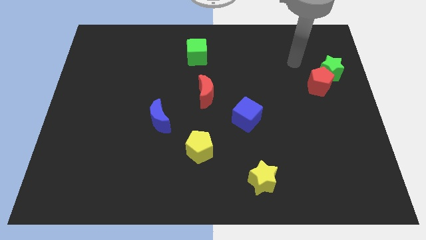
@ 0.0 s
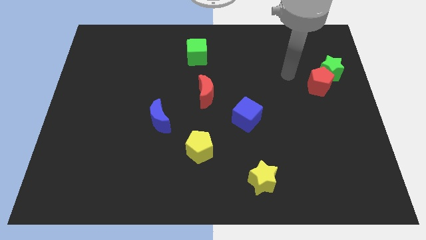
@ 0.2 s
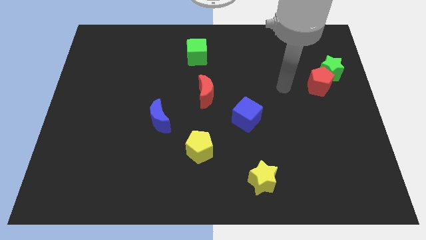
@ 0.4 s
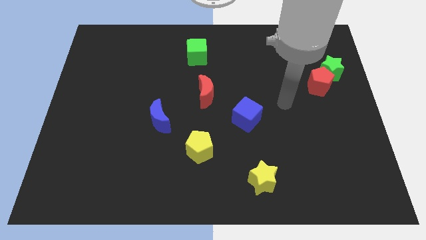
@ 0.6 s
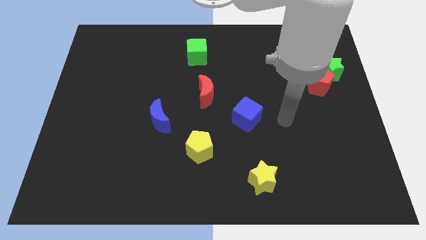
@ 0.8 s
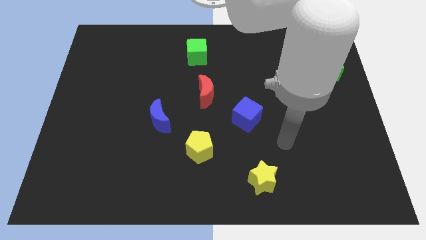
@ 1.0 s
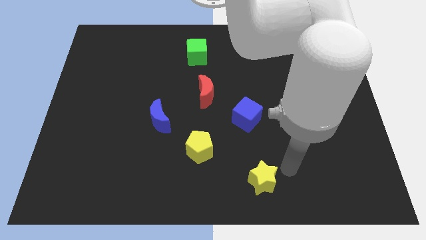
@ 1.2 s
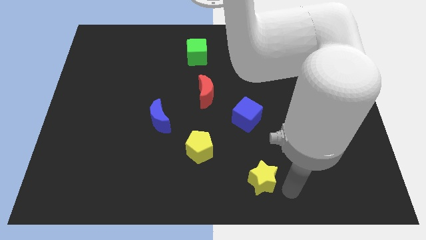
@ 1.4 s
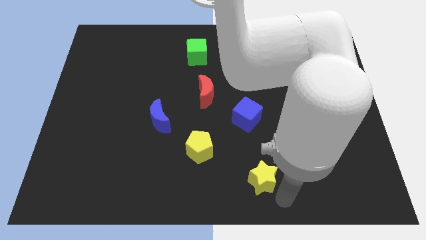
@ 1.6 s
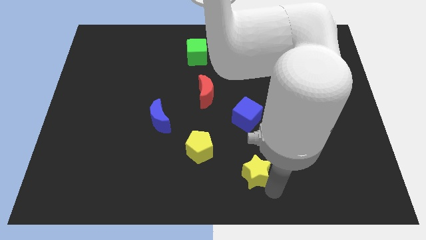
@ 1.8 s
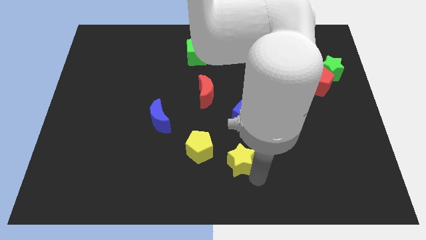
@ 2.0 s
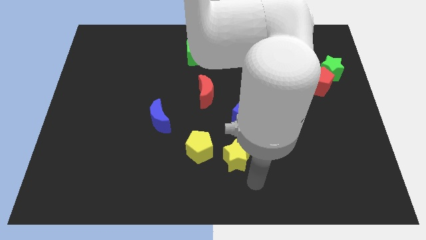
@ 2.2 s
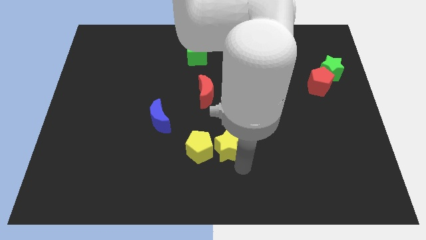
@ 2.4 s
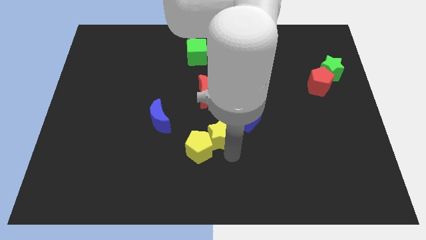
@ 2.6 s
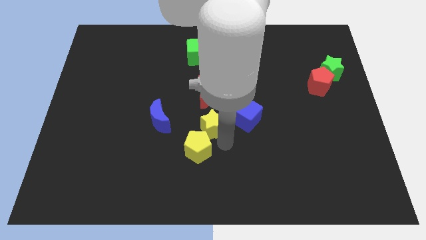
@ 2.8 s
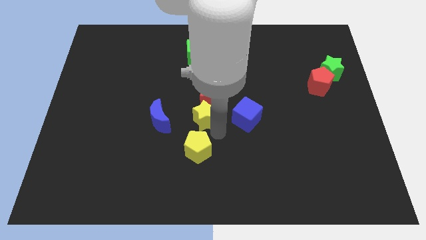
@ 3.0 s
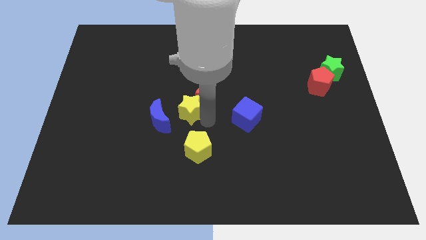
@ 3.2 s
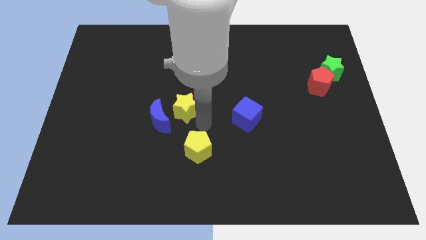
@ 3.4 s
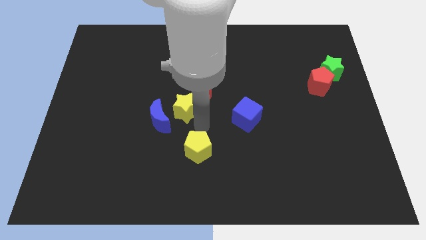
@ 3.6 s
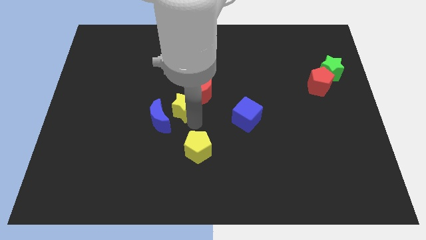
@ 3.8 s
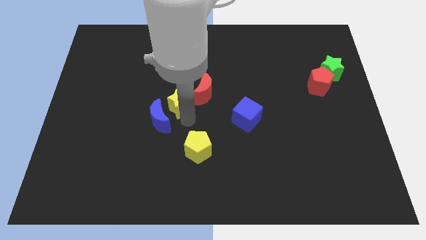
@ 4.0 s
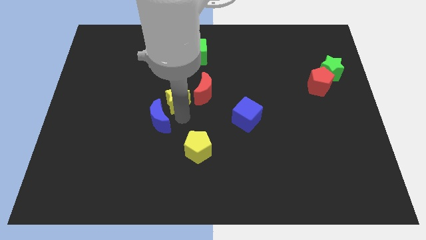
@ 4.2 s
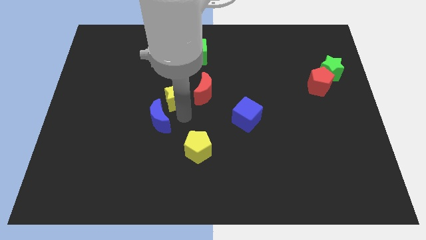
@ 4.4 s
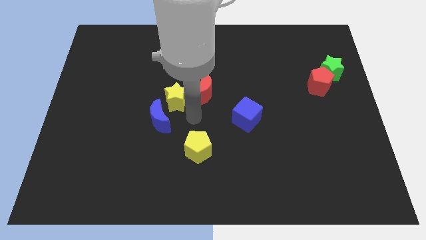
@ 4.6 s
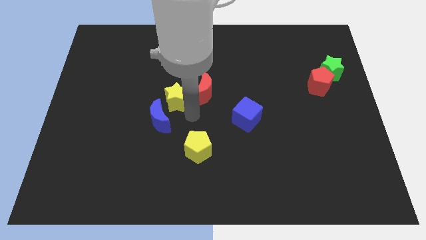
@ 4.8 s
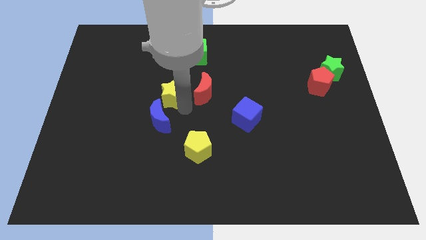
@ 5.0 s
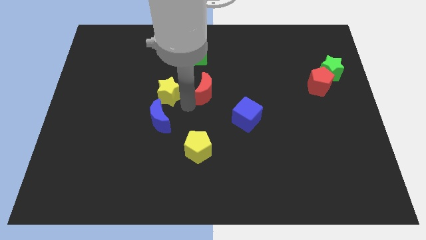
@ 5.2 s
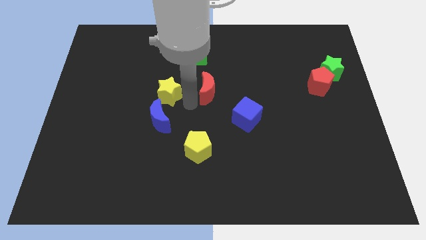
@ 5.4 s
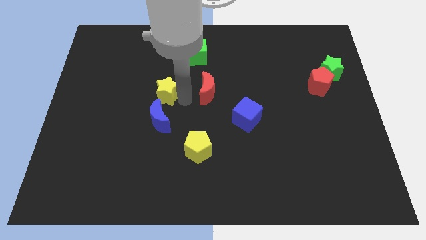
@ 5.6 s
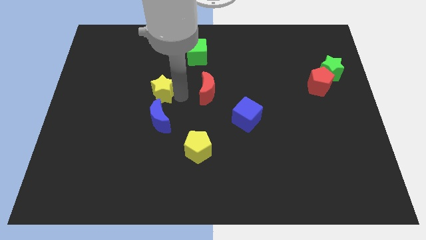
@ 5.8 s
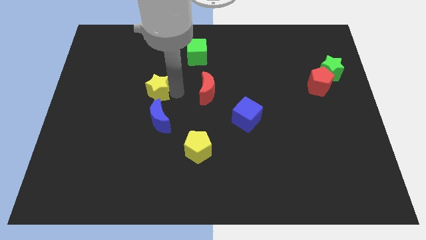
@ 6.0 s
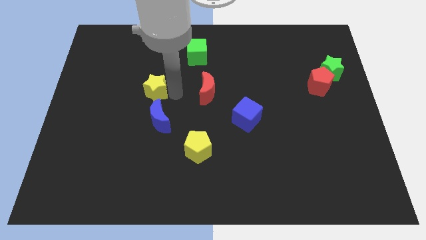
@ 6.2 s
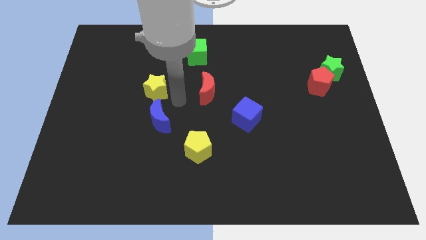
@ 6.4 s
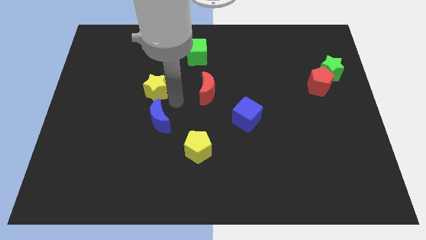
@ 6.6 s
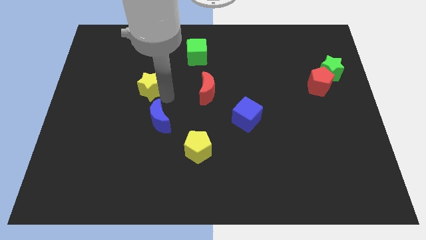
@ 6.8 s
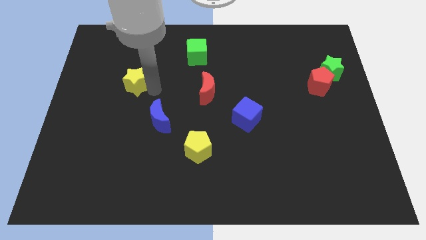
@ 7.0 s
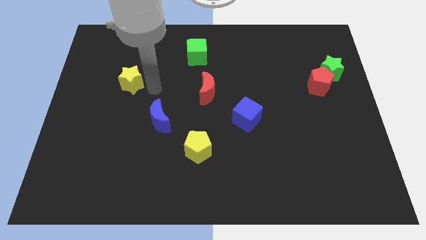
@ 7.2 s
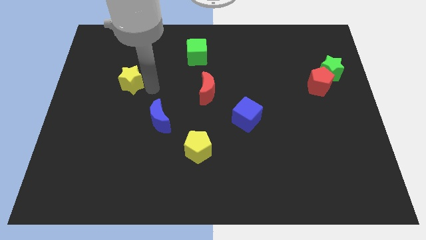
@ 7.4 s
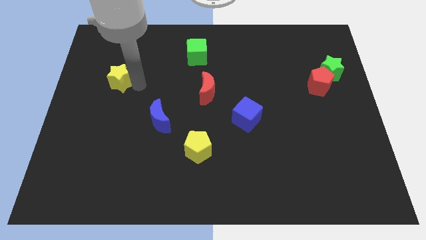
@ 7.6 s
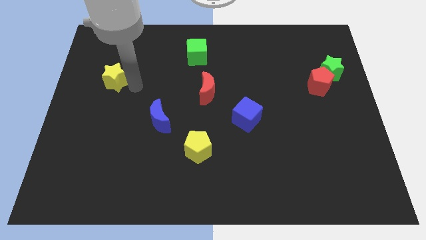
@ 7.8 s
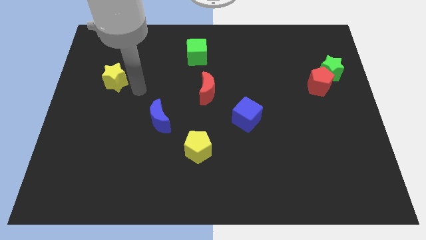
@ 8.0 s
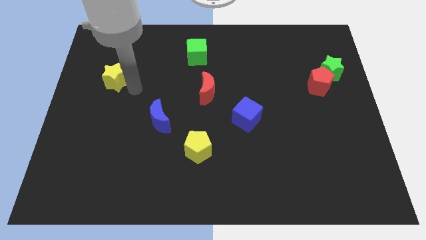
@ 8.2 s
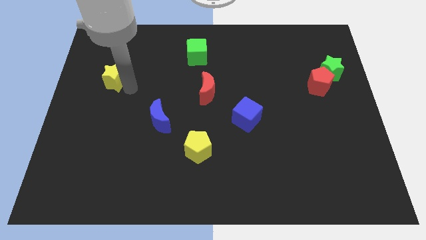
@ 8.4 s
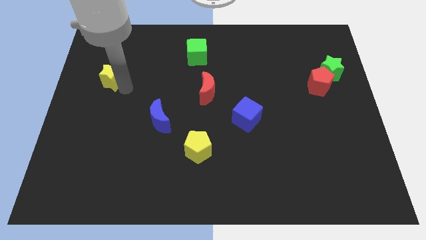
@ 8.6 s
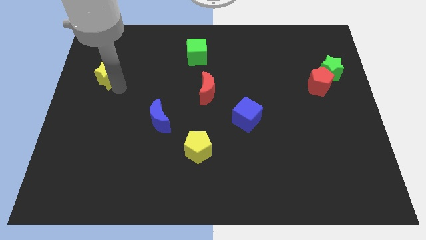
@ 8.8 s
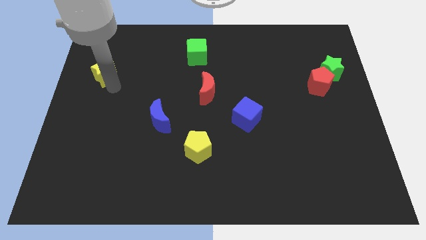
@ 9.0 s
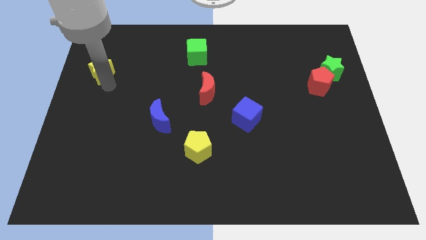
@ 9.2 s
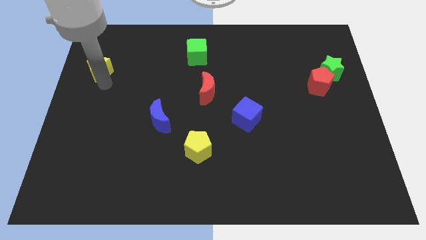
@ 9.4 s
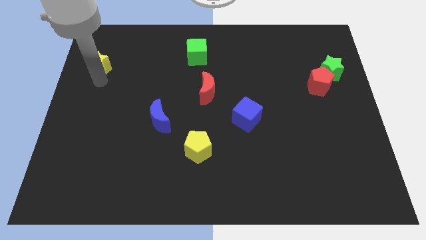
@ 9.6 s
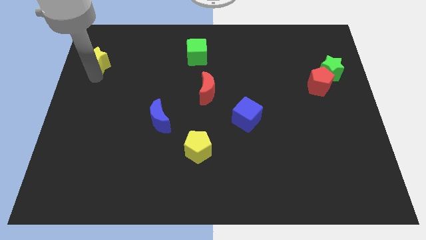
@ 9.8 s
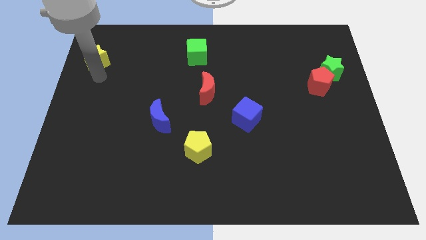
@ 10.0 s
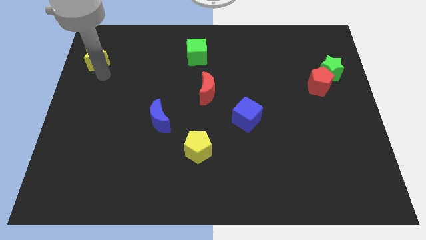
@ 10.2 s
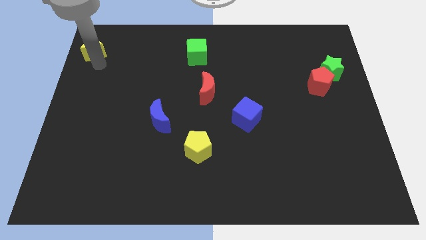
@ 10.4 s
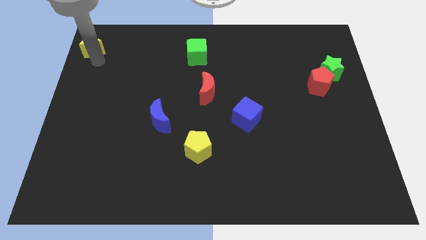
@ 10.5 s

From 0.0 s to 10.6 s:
move the yellow star to the top left

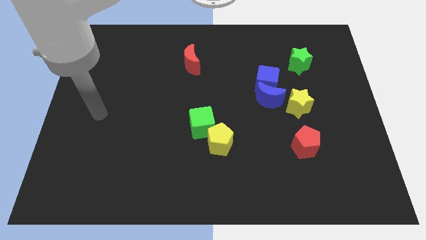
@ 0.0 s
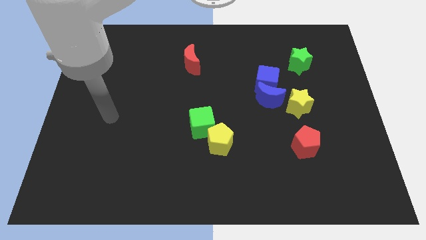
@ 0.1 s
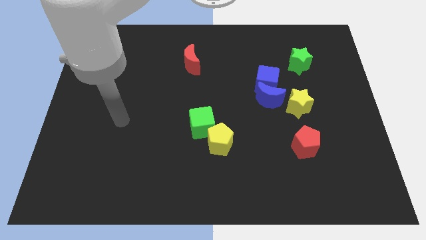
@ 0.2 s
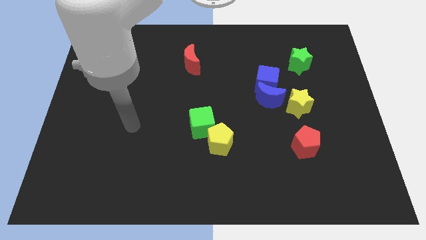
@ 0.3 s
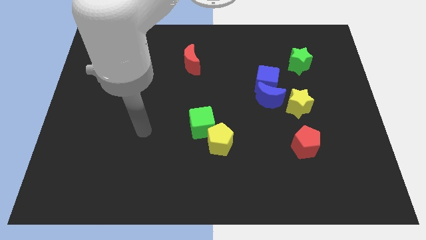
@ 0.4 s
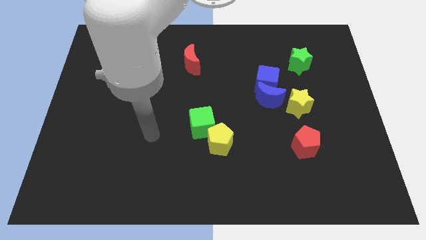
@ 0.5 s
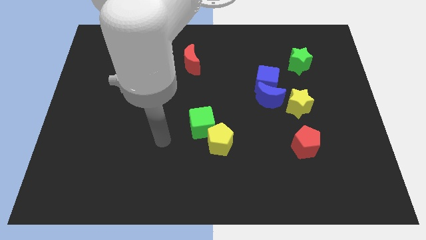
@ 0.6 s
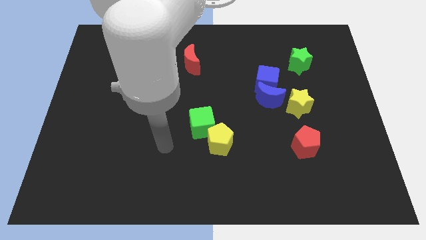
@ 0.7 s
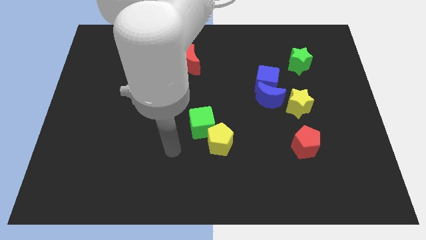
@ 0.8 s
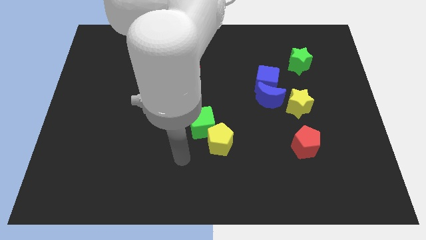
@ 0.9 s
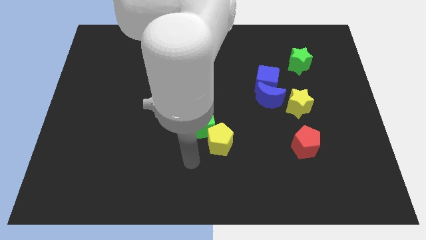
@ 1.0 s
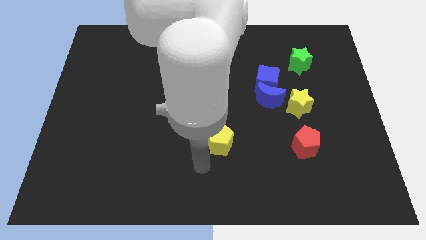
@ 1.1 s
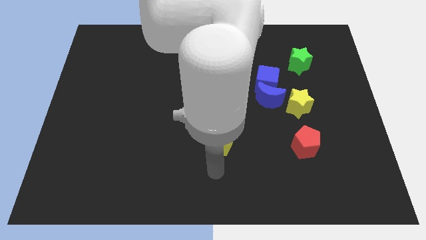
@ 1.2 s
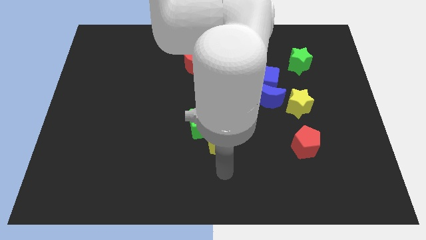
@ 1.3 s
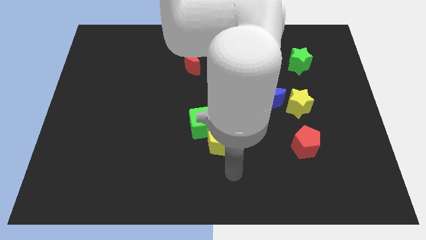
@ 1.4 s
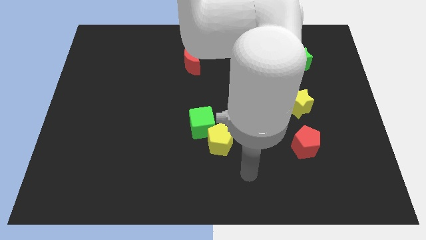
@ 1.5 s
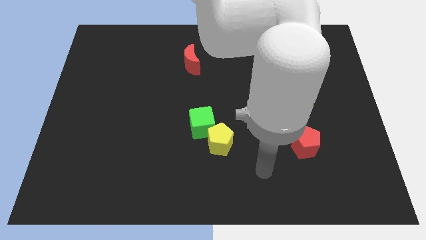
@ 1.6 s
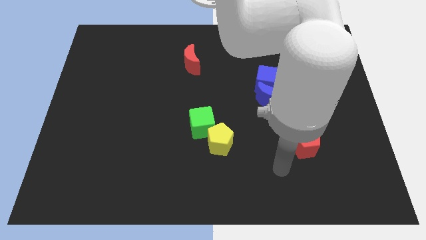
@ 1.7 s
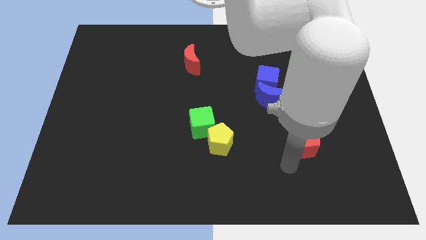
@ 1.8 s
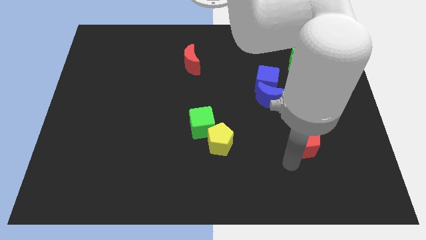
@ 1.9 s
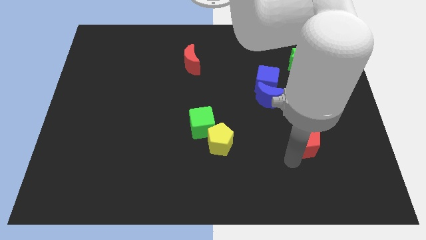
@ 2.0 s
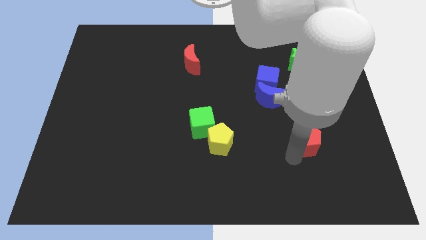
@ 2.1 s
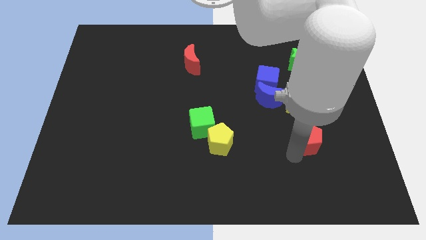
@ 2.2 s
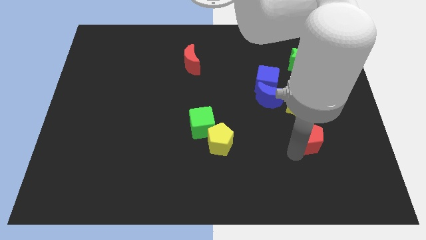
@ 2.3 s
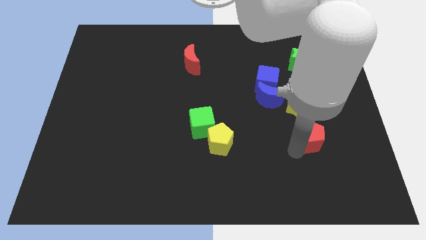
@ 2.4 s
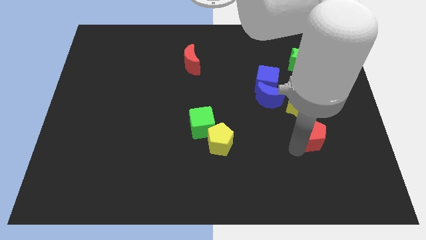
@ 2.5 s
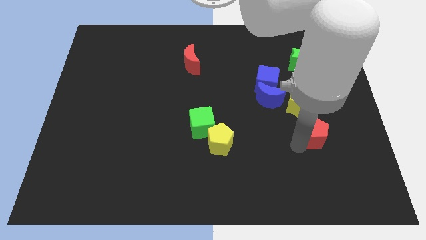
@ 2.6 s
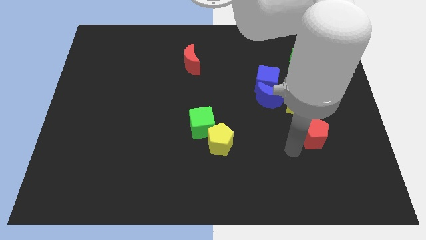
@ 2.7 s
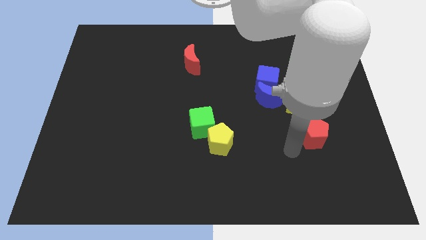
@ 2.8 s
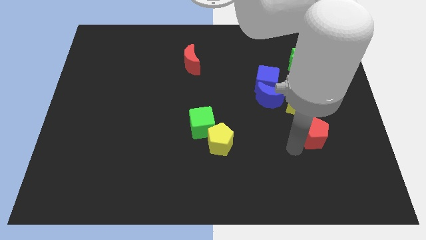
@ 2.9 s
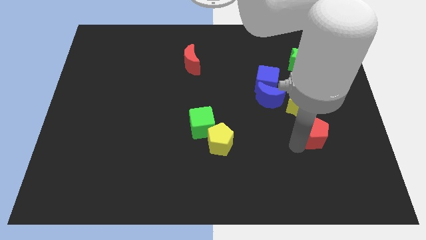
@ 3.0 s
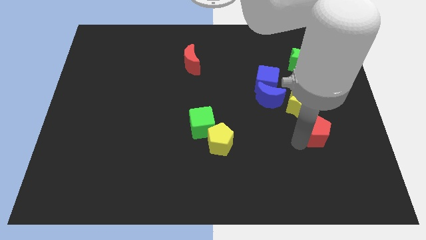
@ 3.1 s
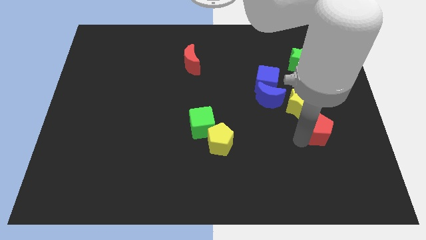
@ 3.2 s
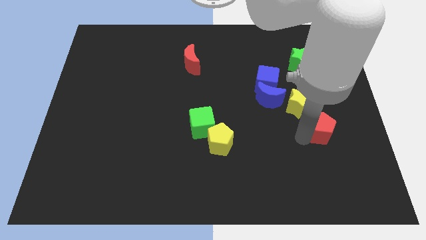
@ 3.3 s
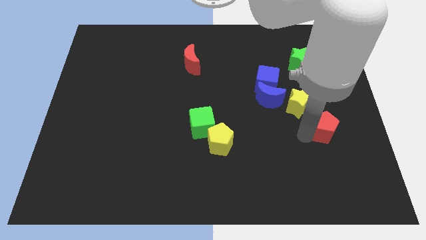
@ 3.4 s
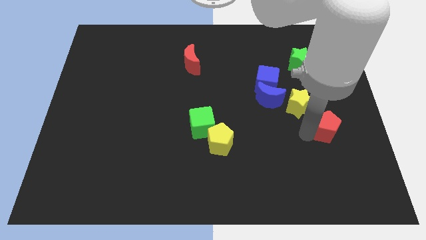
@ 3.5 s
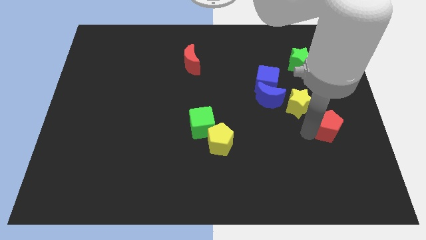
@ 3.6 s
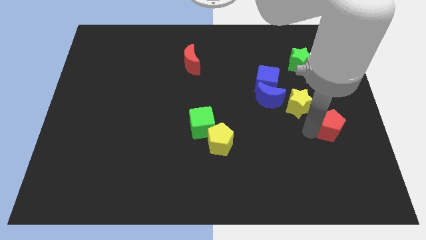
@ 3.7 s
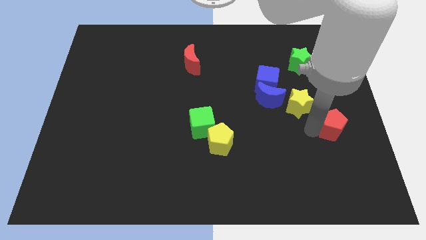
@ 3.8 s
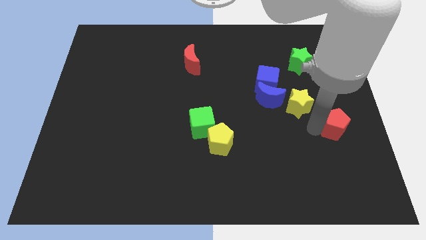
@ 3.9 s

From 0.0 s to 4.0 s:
move the red pentagon to the right side of the board
